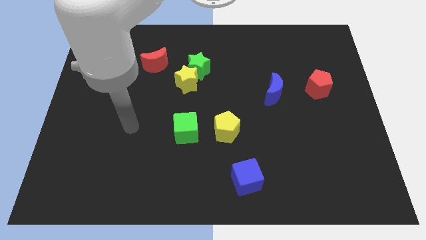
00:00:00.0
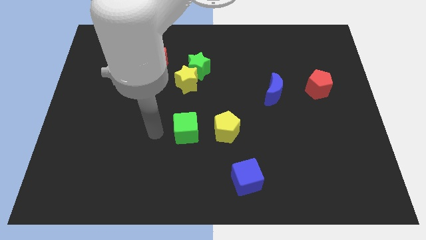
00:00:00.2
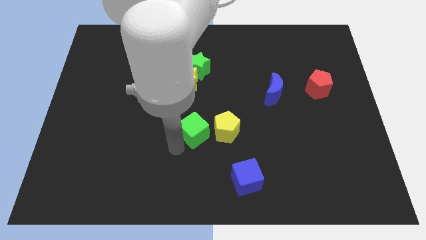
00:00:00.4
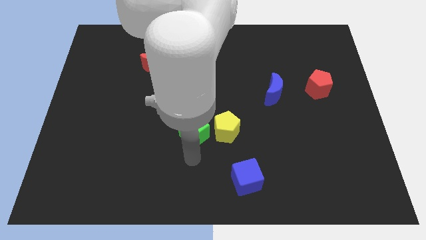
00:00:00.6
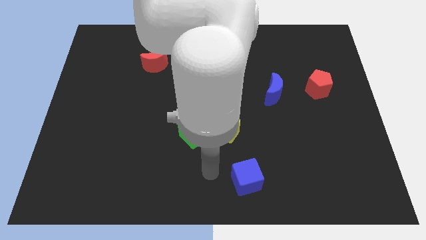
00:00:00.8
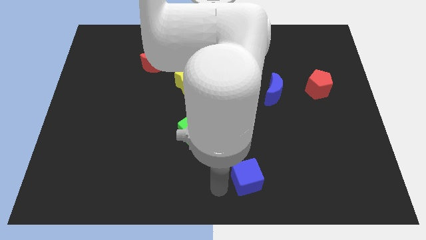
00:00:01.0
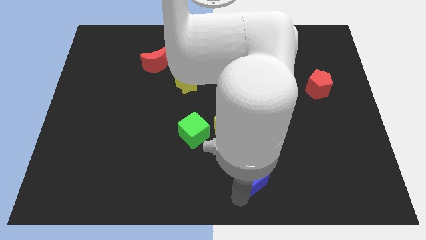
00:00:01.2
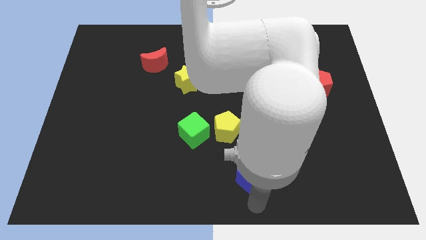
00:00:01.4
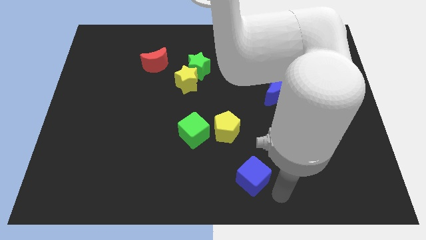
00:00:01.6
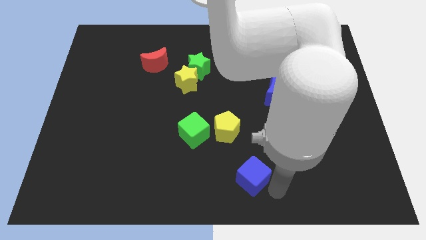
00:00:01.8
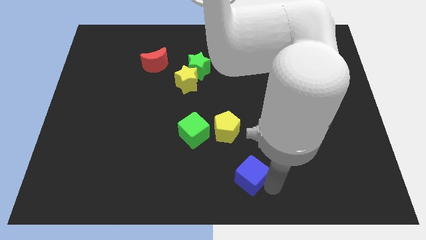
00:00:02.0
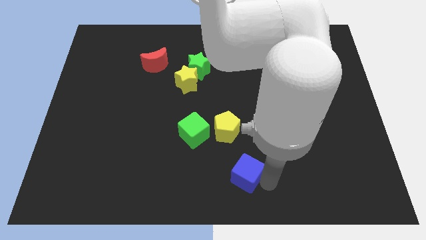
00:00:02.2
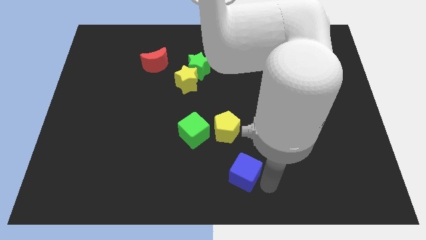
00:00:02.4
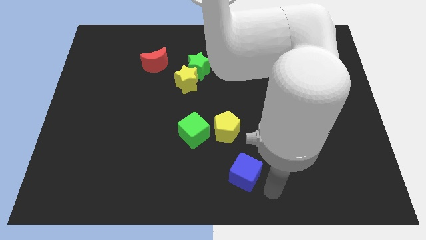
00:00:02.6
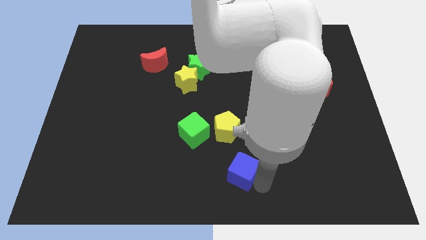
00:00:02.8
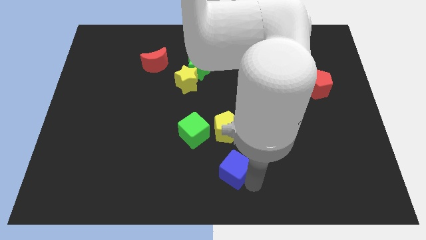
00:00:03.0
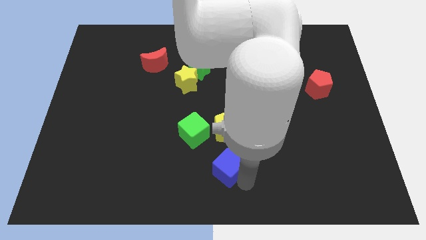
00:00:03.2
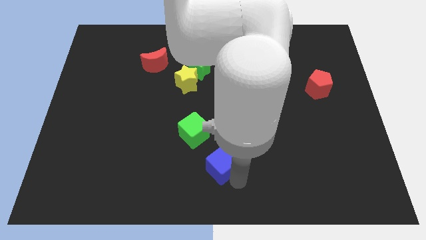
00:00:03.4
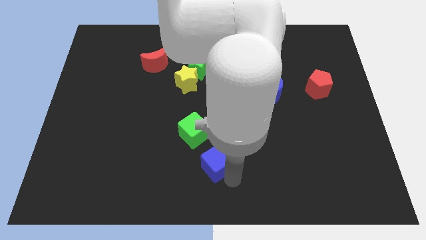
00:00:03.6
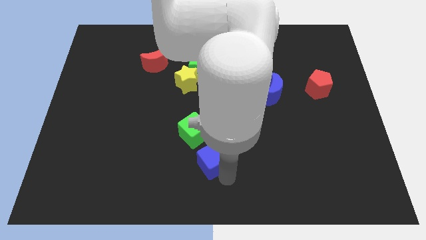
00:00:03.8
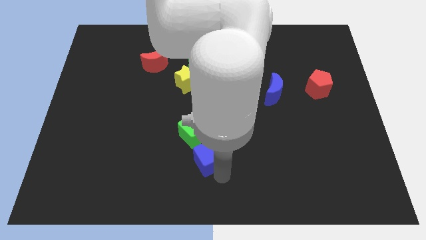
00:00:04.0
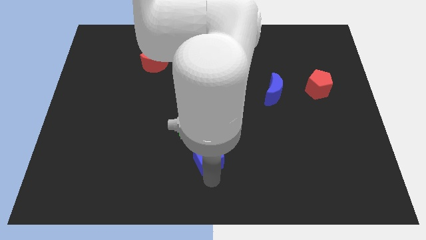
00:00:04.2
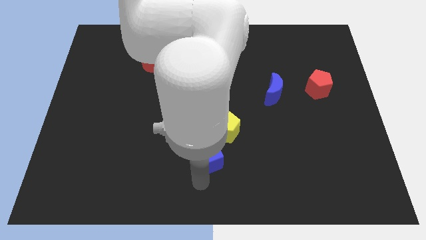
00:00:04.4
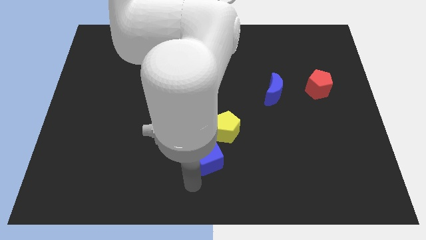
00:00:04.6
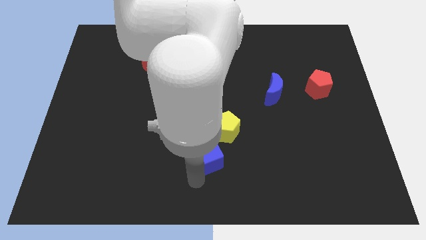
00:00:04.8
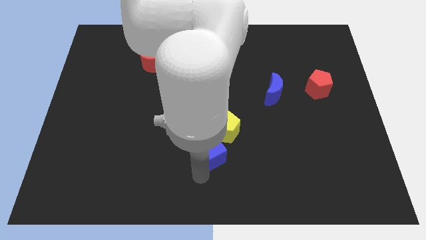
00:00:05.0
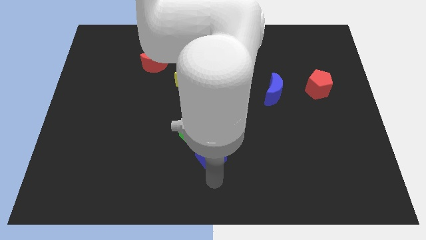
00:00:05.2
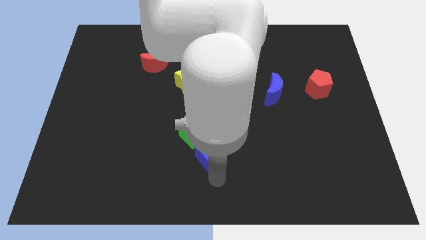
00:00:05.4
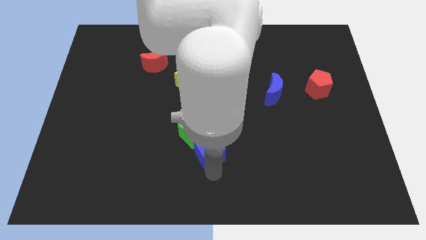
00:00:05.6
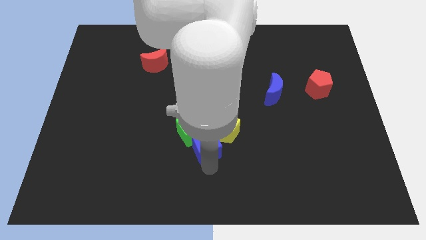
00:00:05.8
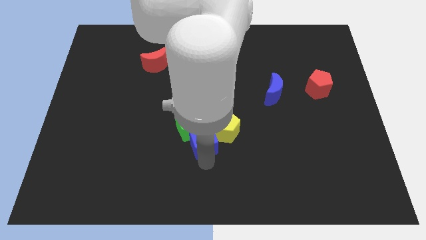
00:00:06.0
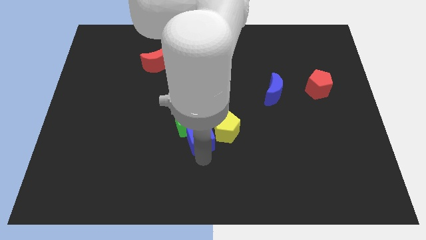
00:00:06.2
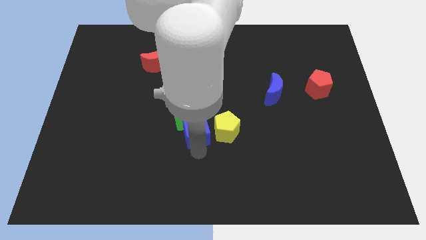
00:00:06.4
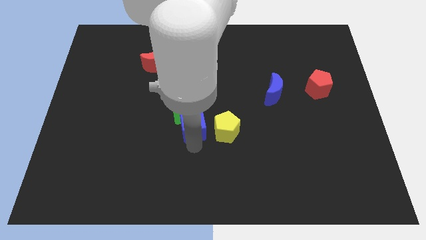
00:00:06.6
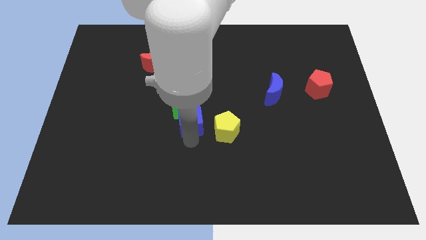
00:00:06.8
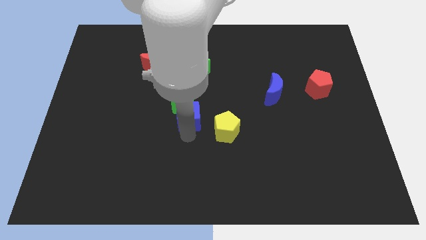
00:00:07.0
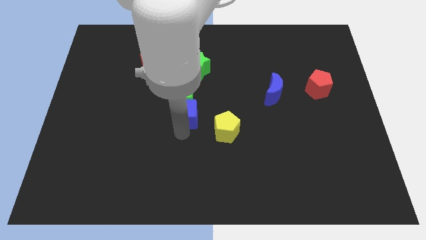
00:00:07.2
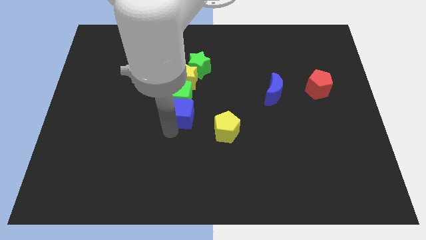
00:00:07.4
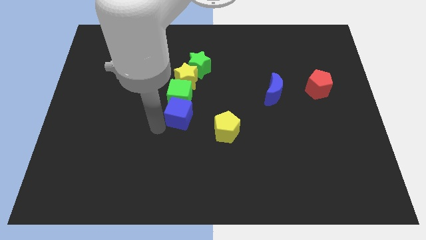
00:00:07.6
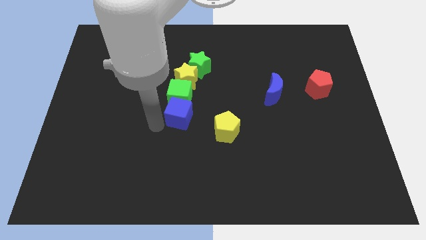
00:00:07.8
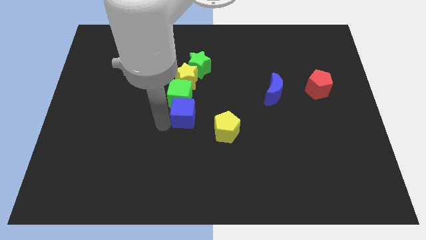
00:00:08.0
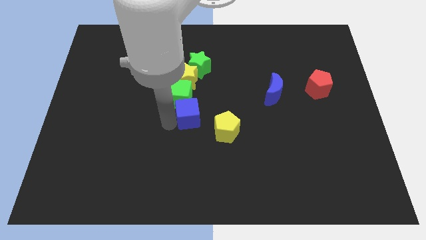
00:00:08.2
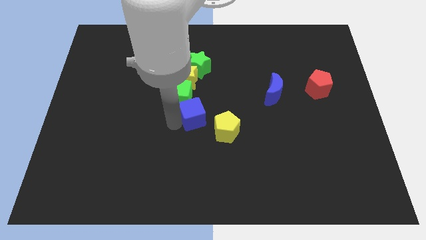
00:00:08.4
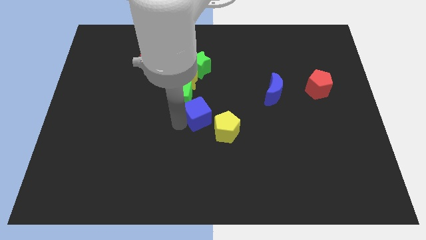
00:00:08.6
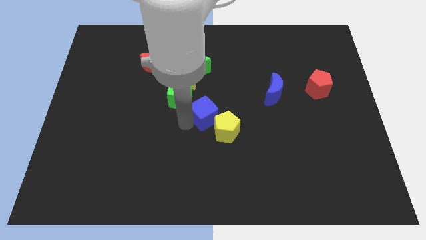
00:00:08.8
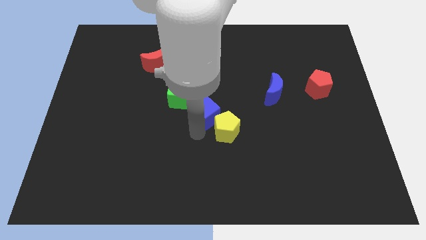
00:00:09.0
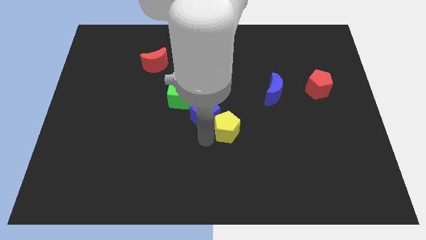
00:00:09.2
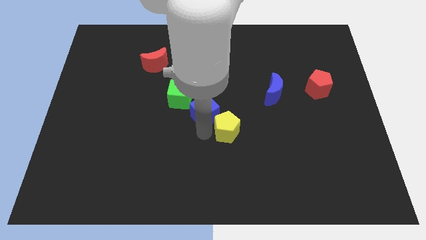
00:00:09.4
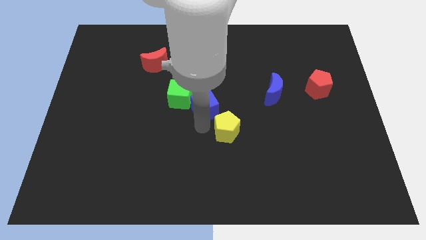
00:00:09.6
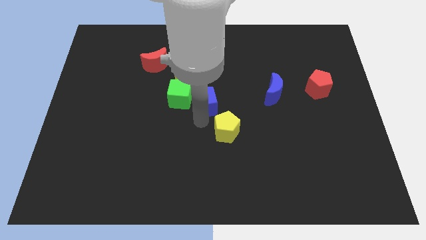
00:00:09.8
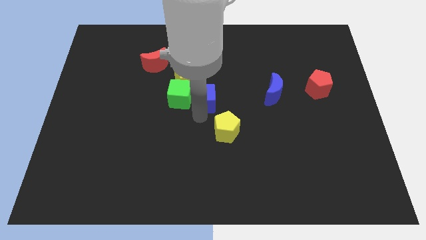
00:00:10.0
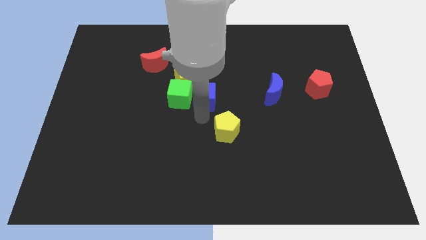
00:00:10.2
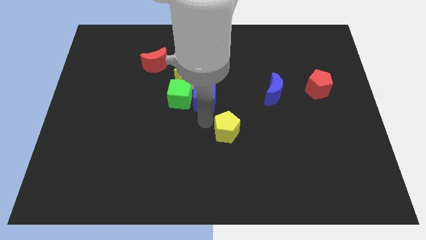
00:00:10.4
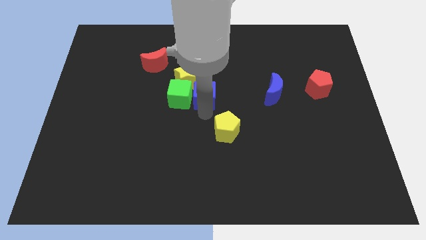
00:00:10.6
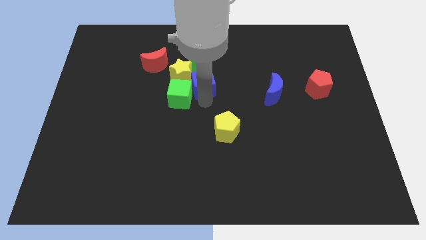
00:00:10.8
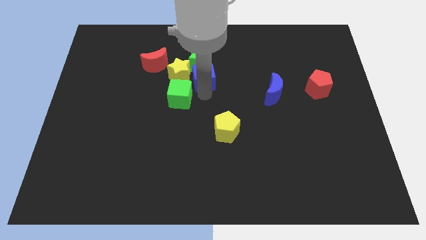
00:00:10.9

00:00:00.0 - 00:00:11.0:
move the blue cube towards the green star
